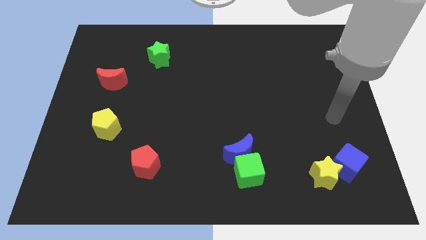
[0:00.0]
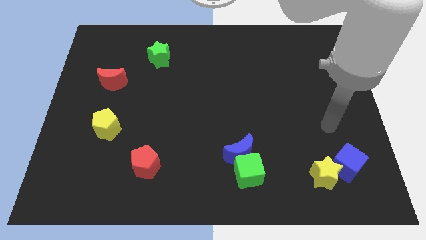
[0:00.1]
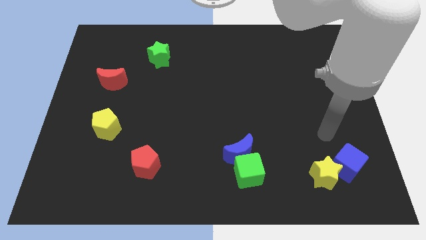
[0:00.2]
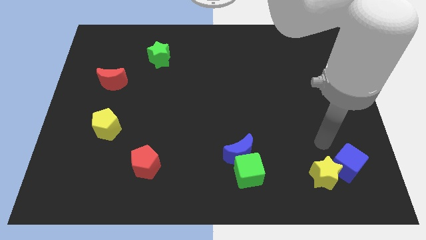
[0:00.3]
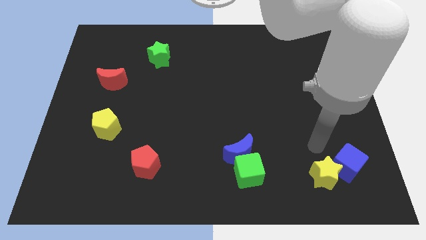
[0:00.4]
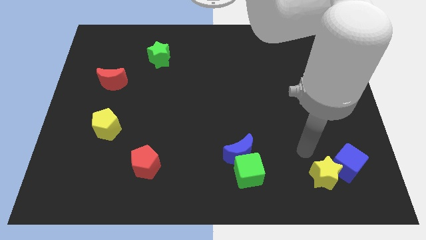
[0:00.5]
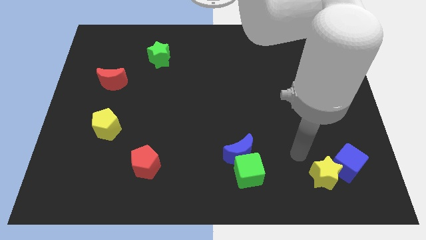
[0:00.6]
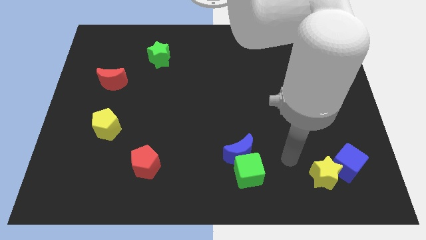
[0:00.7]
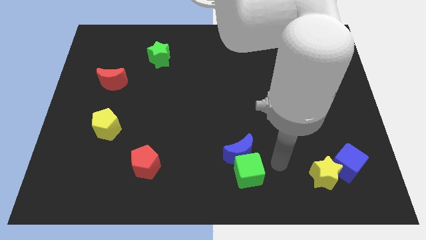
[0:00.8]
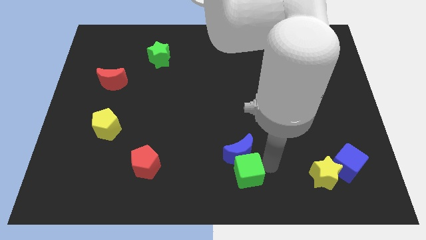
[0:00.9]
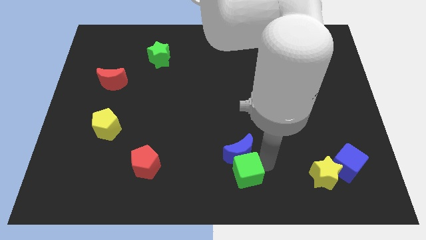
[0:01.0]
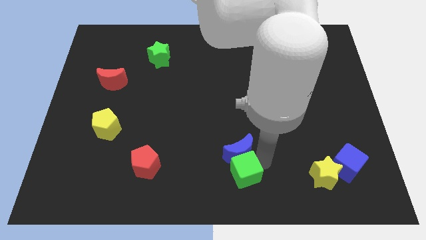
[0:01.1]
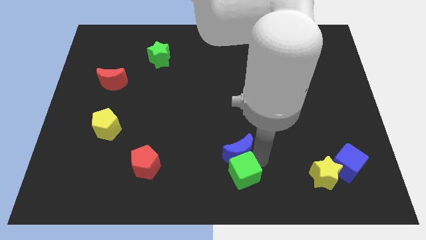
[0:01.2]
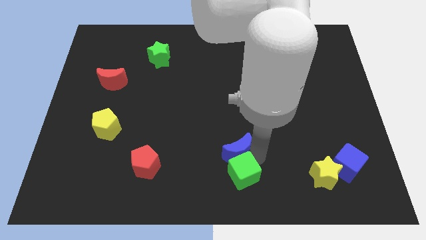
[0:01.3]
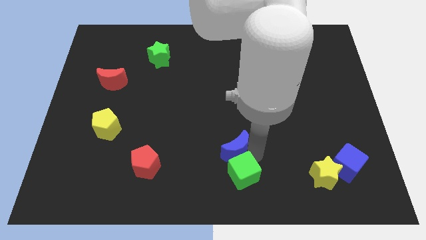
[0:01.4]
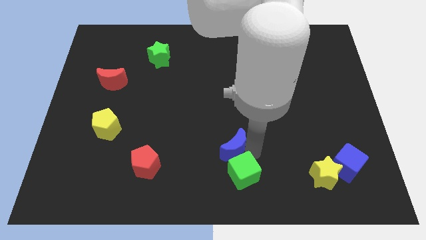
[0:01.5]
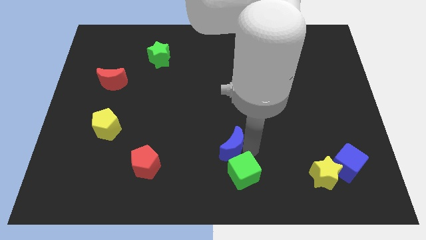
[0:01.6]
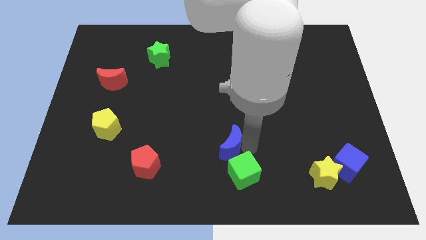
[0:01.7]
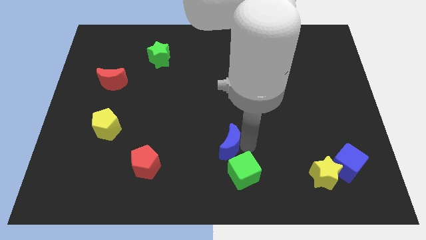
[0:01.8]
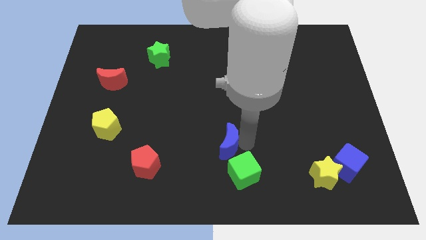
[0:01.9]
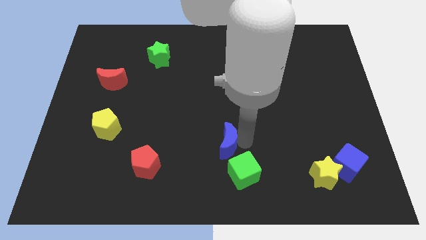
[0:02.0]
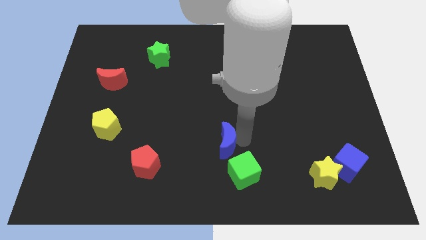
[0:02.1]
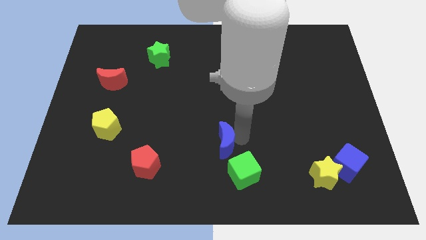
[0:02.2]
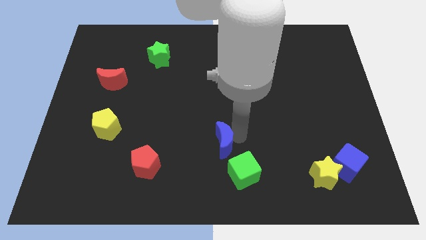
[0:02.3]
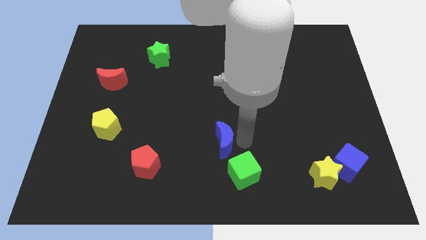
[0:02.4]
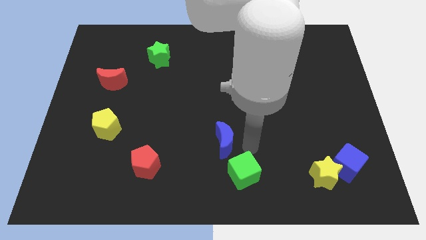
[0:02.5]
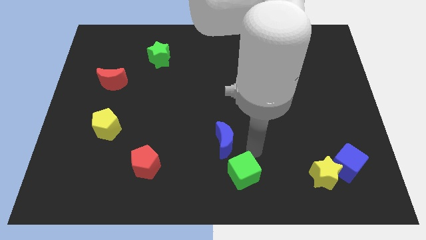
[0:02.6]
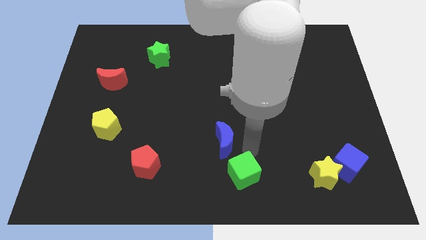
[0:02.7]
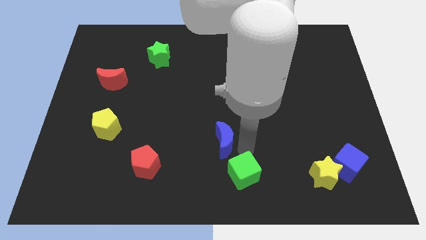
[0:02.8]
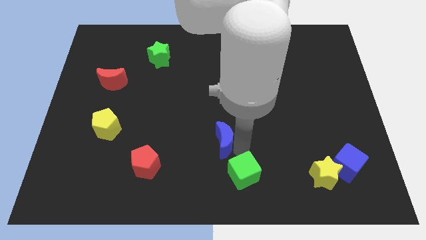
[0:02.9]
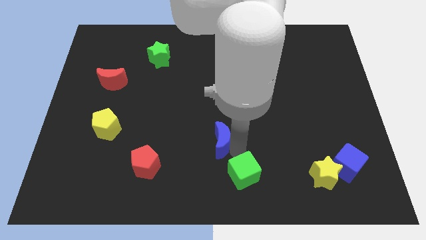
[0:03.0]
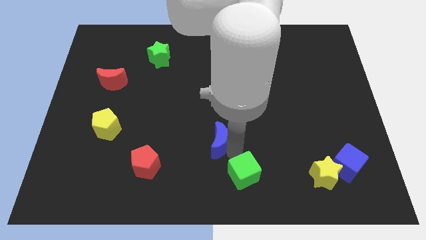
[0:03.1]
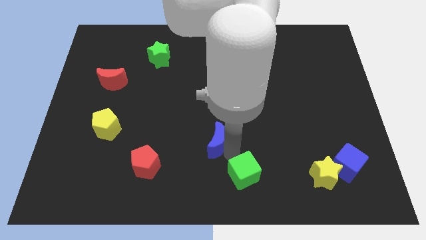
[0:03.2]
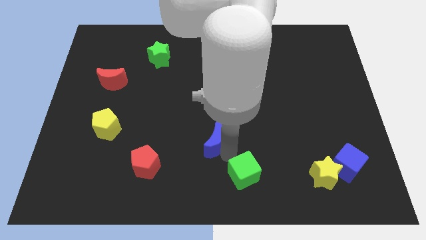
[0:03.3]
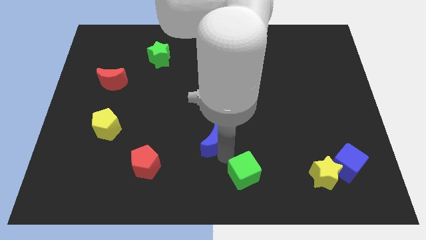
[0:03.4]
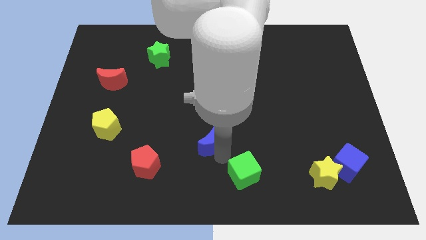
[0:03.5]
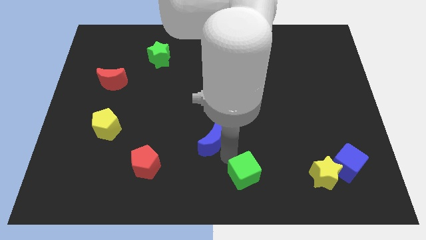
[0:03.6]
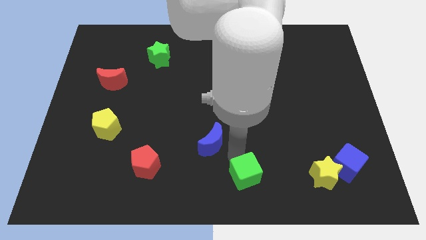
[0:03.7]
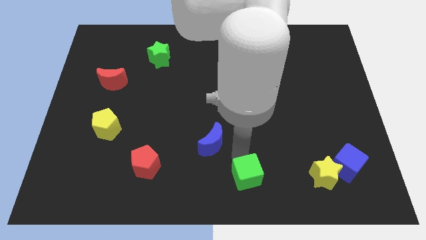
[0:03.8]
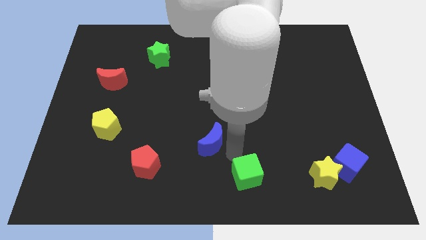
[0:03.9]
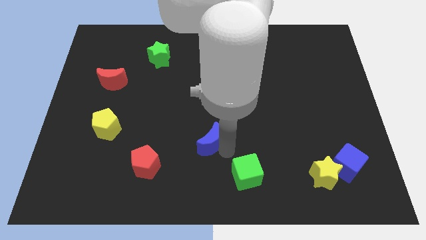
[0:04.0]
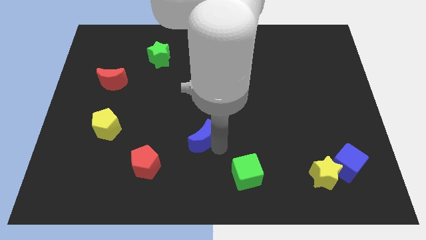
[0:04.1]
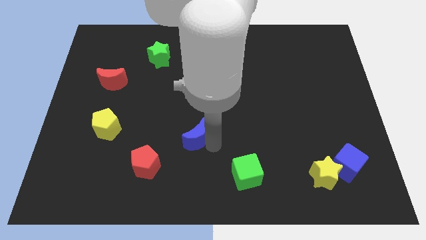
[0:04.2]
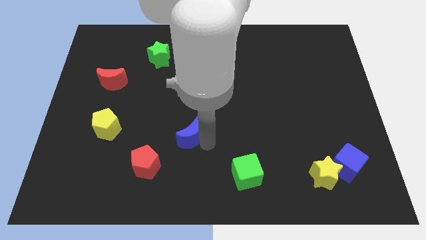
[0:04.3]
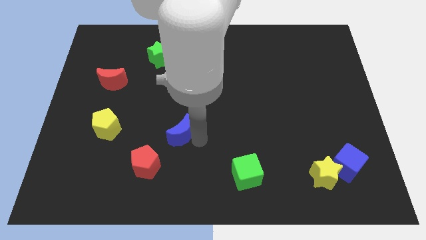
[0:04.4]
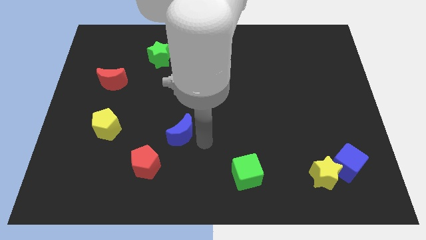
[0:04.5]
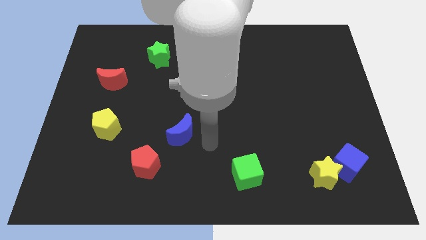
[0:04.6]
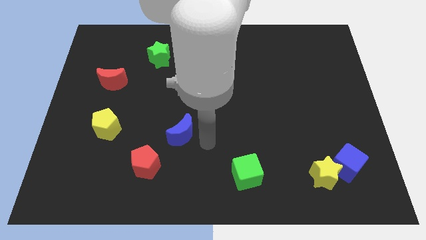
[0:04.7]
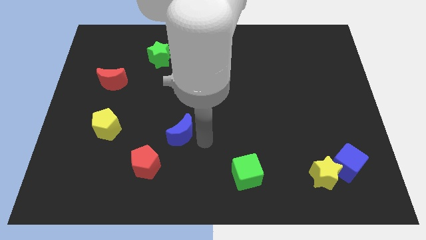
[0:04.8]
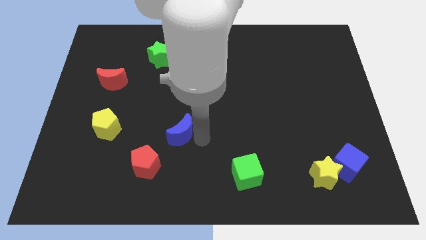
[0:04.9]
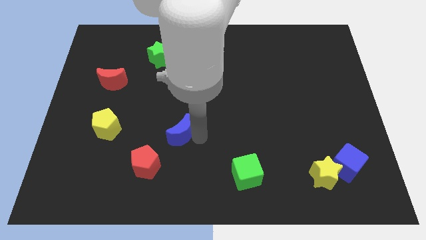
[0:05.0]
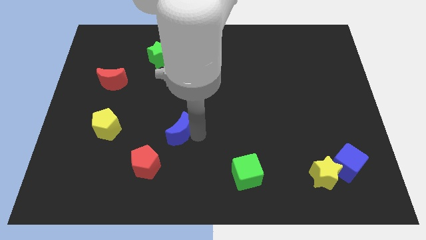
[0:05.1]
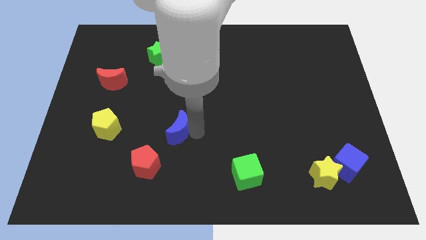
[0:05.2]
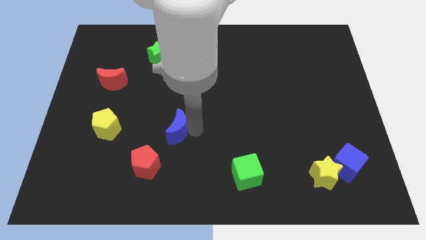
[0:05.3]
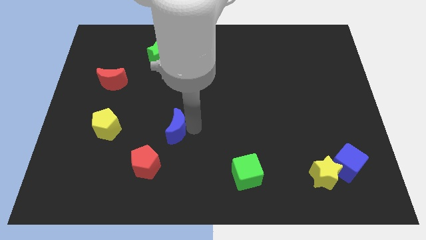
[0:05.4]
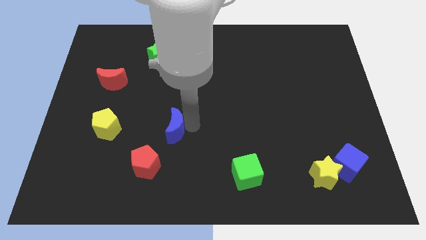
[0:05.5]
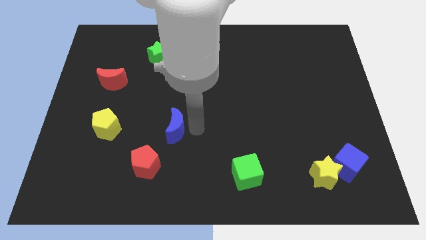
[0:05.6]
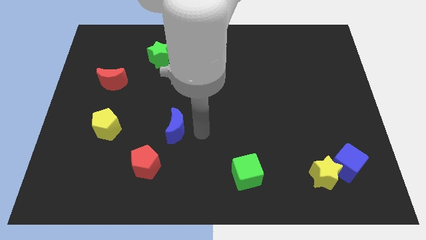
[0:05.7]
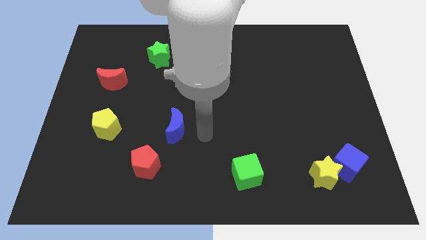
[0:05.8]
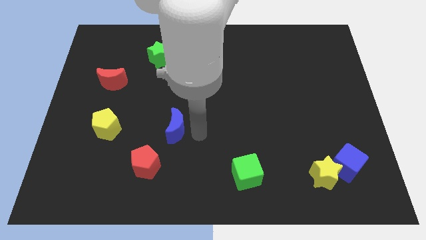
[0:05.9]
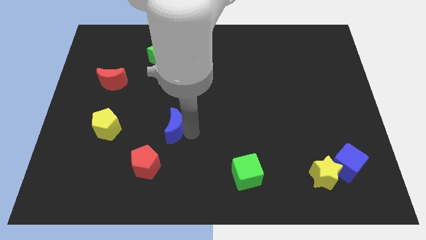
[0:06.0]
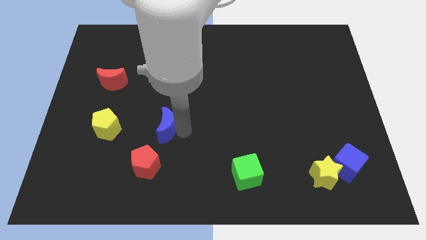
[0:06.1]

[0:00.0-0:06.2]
push the blue moon to the top side of the red pentagon
